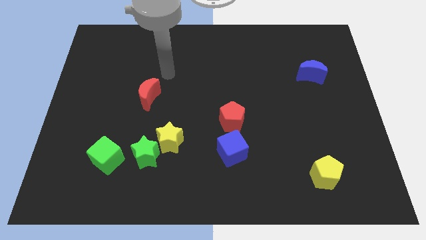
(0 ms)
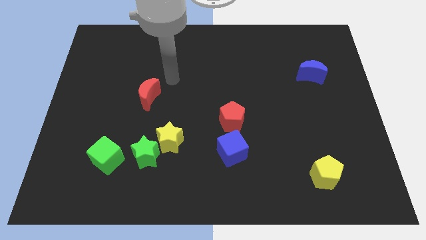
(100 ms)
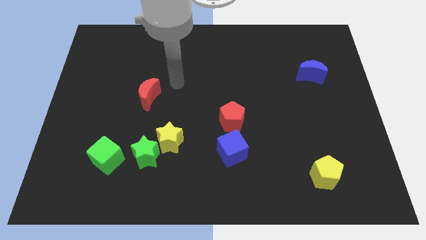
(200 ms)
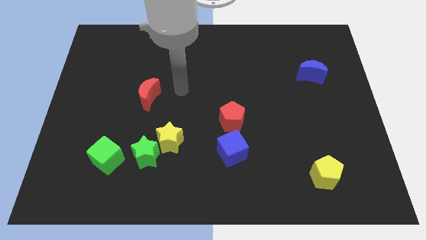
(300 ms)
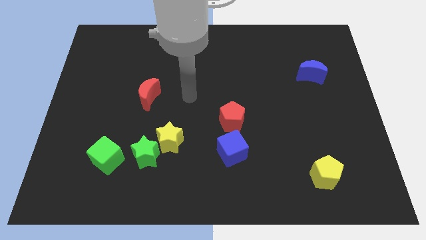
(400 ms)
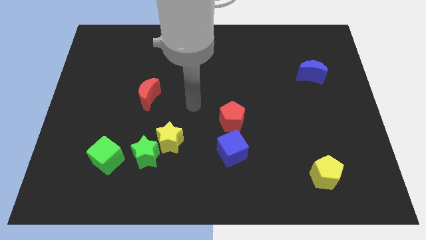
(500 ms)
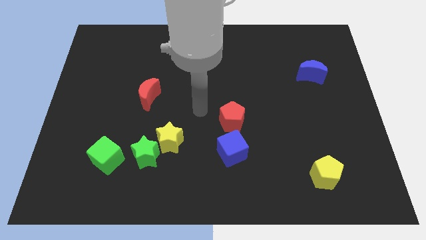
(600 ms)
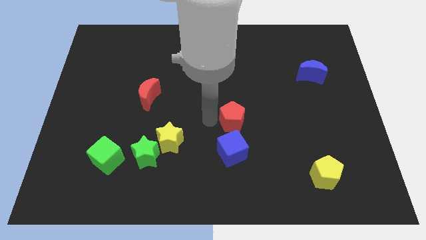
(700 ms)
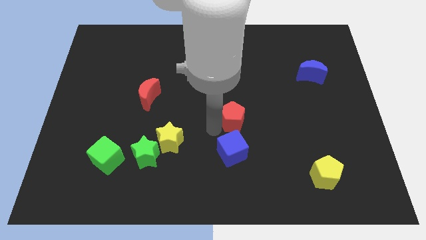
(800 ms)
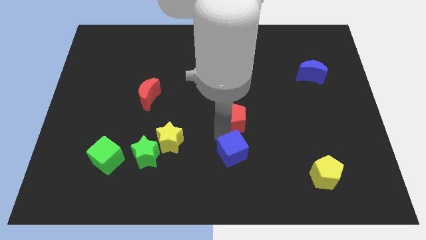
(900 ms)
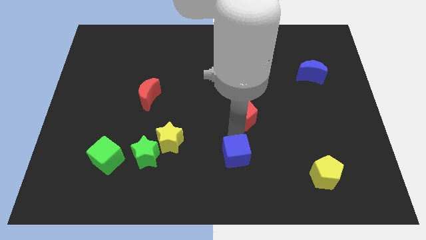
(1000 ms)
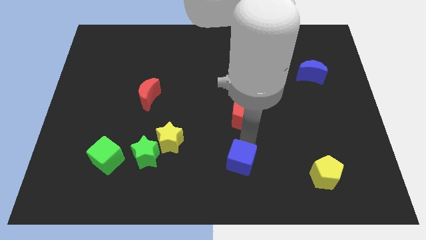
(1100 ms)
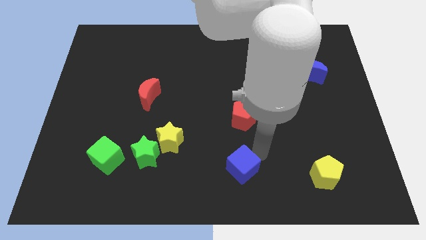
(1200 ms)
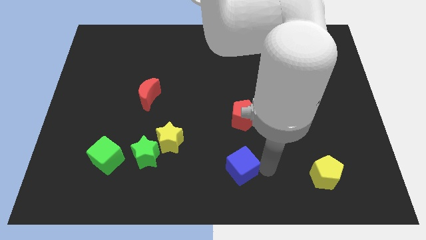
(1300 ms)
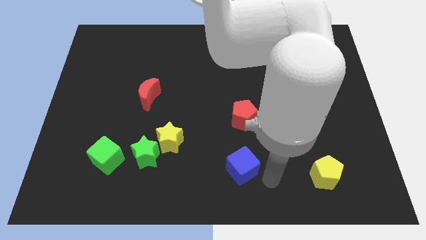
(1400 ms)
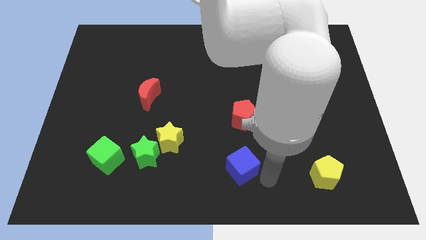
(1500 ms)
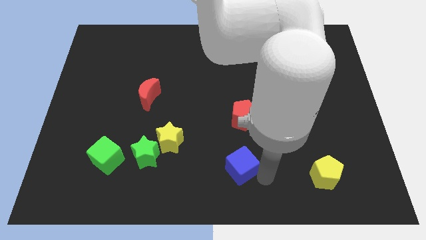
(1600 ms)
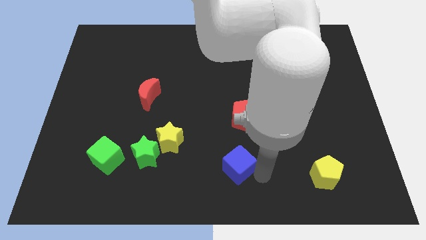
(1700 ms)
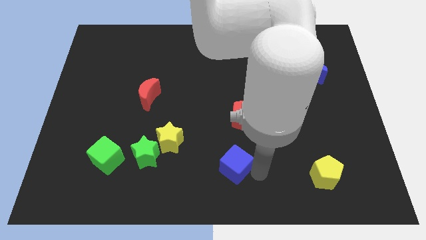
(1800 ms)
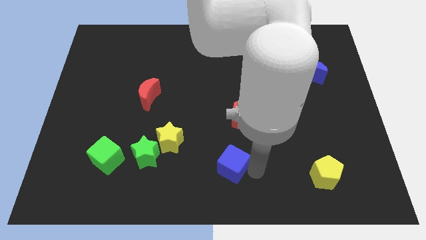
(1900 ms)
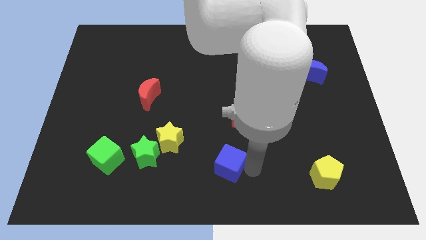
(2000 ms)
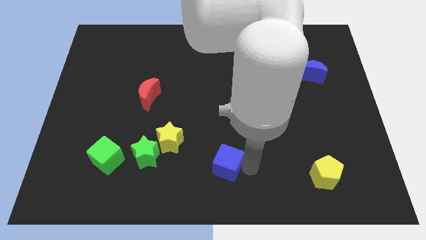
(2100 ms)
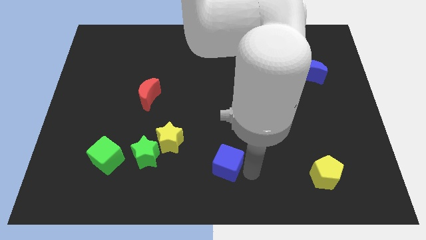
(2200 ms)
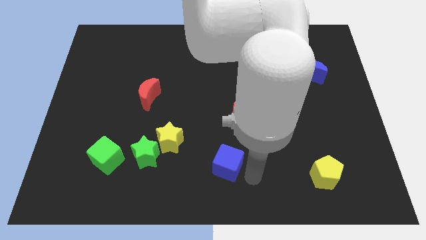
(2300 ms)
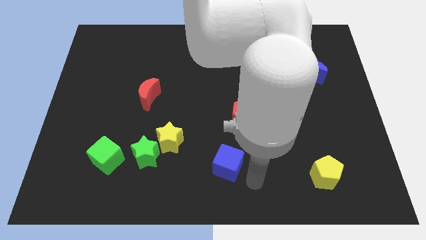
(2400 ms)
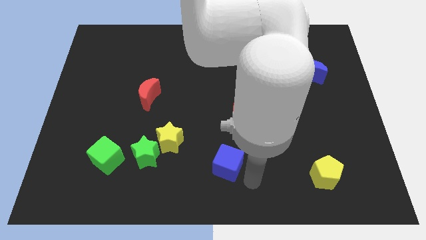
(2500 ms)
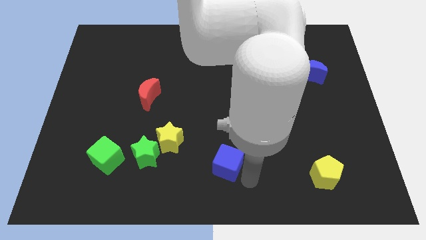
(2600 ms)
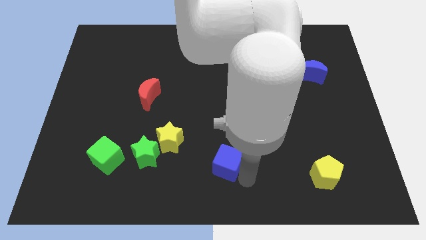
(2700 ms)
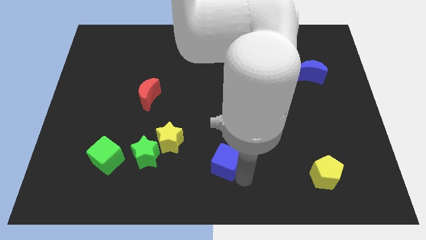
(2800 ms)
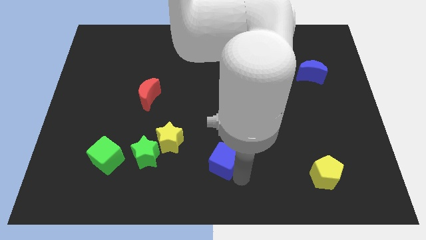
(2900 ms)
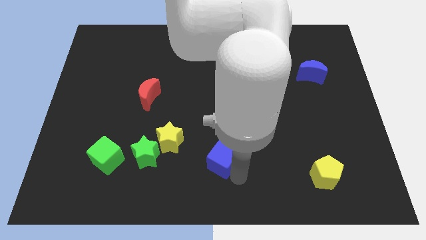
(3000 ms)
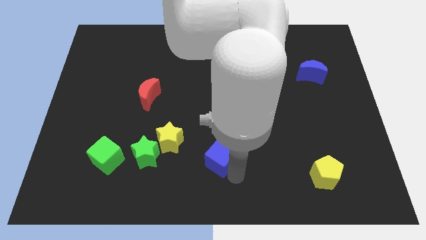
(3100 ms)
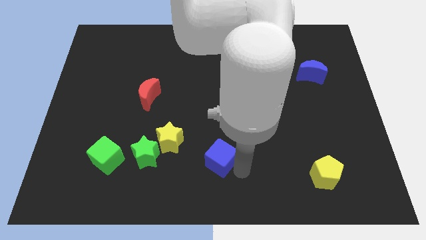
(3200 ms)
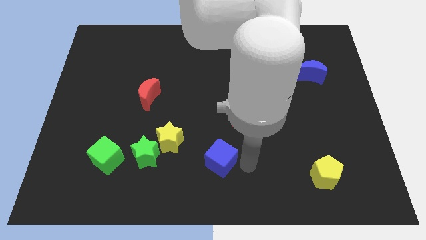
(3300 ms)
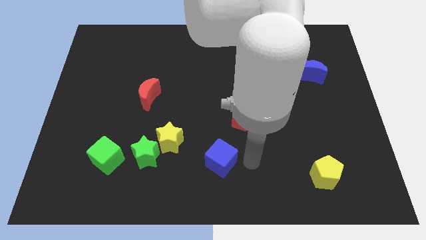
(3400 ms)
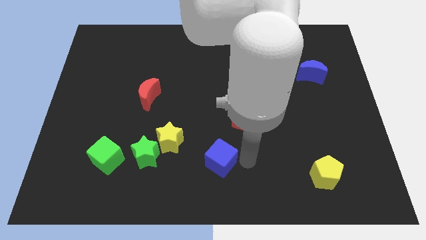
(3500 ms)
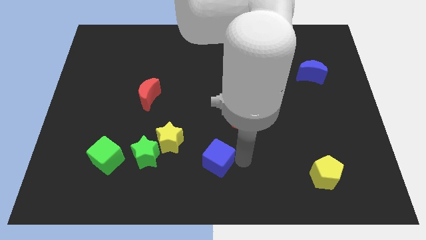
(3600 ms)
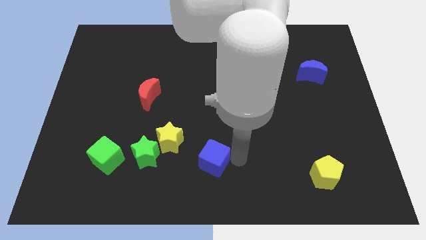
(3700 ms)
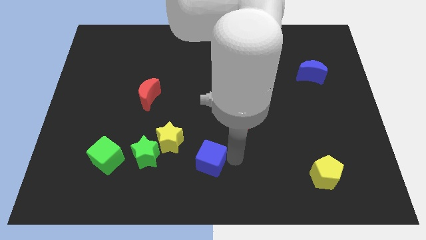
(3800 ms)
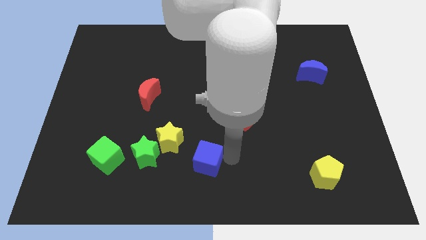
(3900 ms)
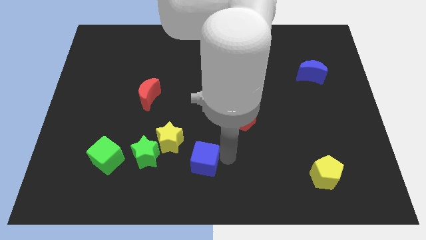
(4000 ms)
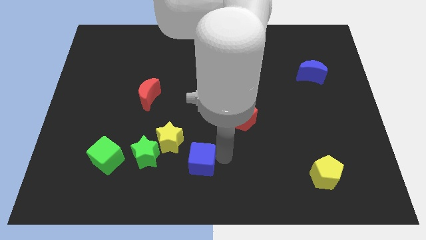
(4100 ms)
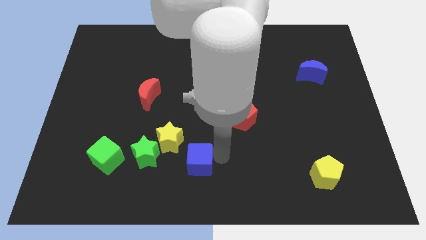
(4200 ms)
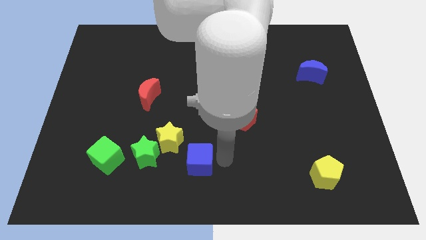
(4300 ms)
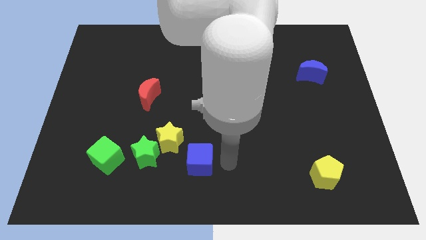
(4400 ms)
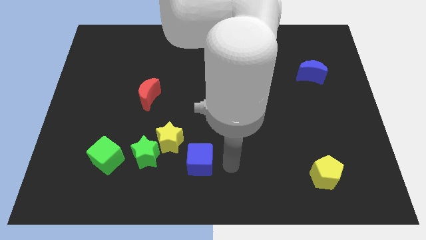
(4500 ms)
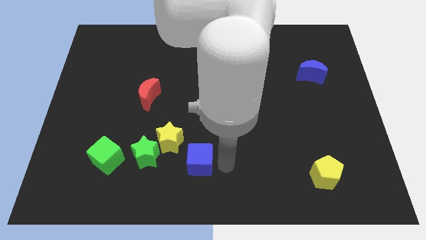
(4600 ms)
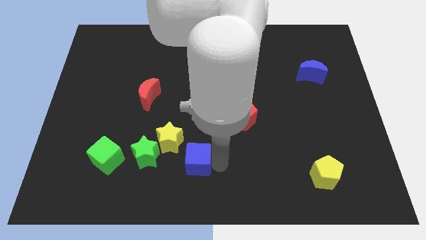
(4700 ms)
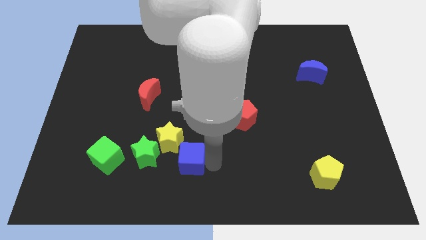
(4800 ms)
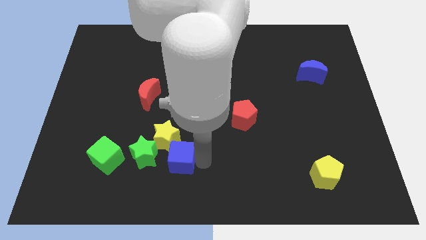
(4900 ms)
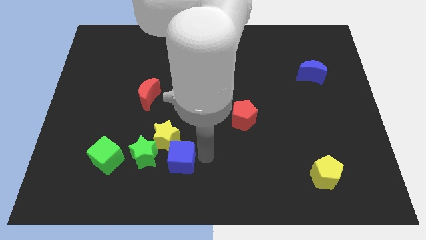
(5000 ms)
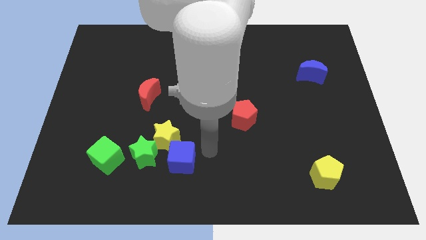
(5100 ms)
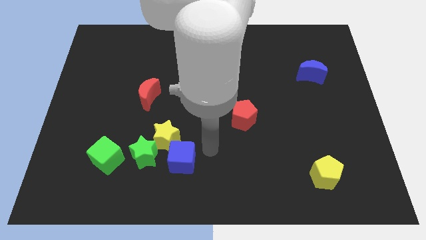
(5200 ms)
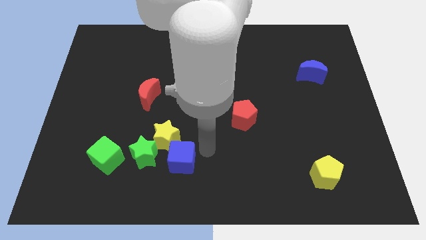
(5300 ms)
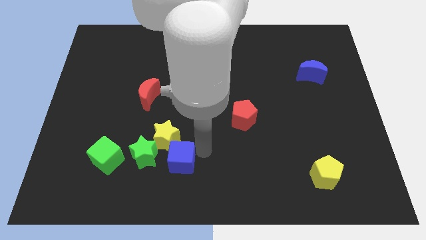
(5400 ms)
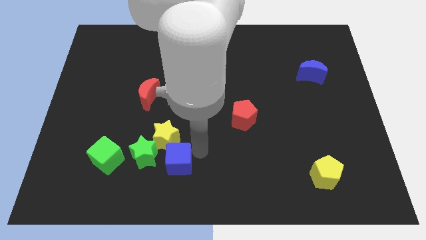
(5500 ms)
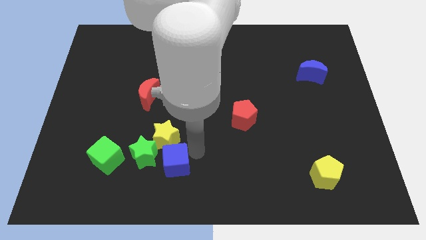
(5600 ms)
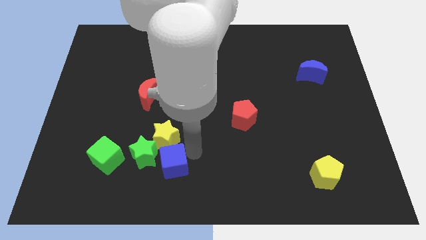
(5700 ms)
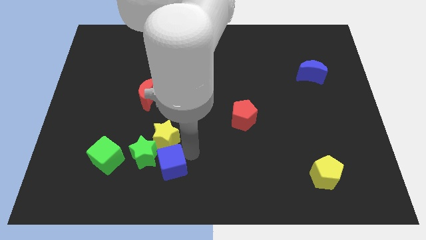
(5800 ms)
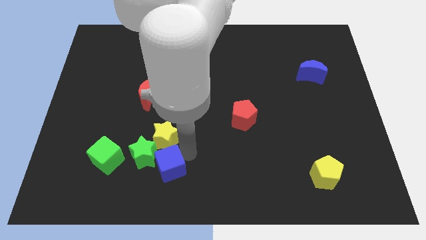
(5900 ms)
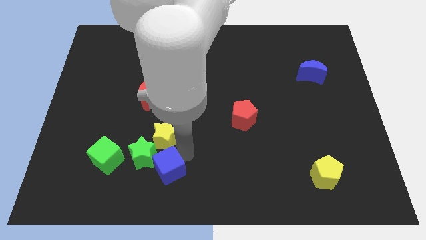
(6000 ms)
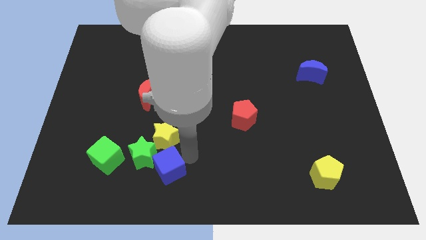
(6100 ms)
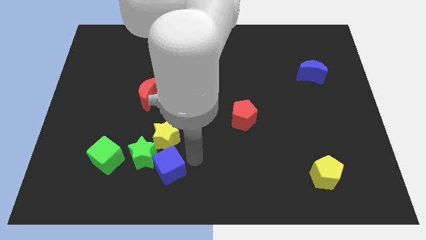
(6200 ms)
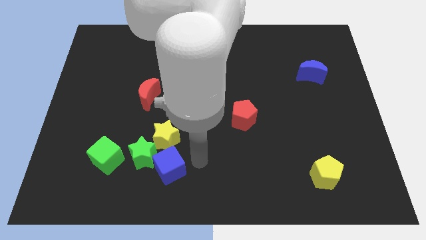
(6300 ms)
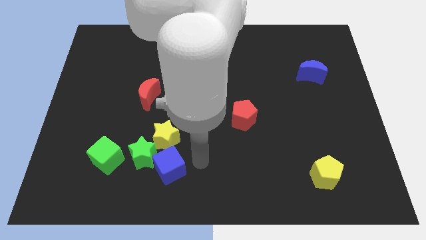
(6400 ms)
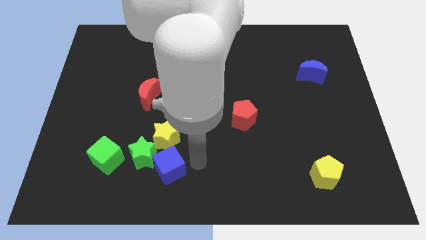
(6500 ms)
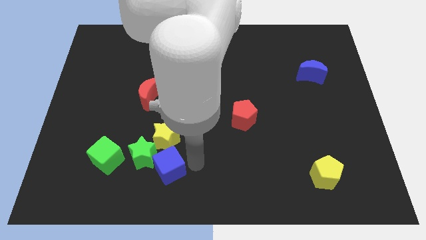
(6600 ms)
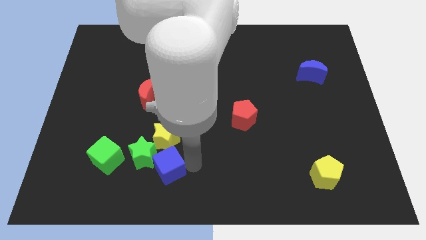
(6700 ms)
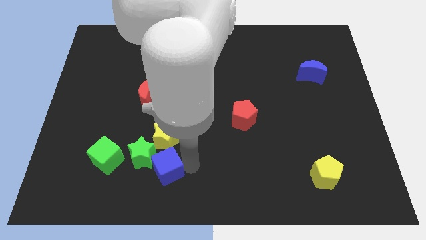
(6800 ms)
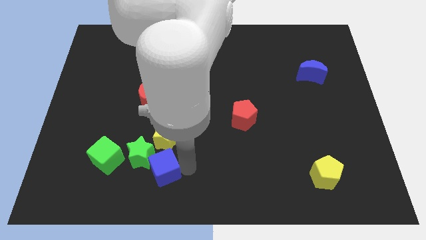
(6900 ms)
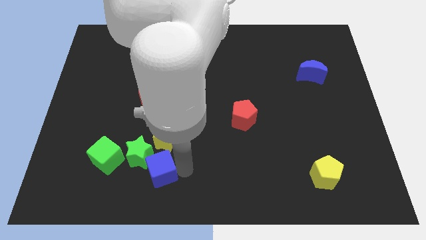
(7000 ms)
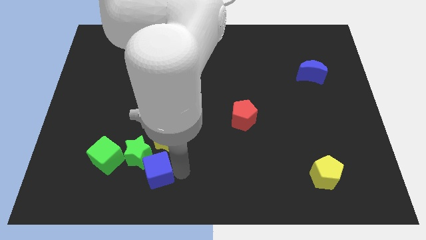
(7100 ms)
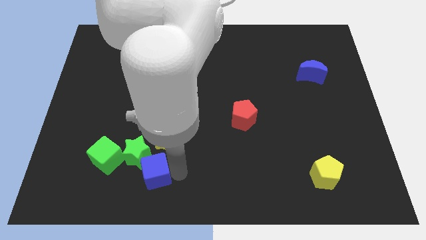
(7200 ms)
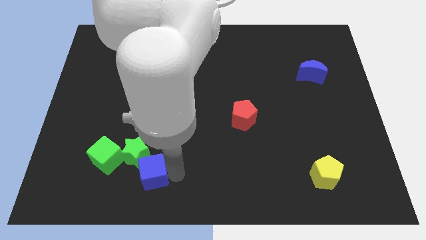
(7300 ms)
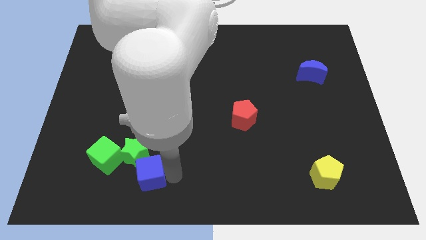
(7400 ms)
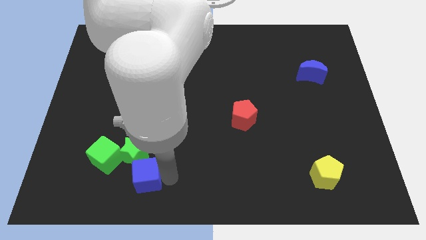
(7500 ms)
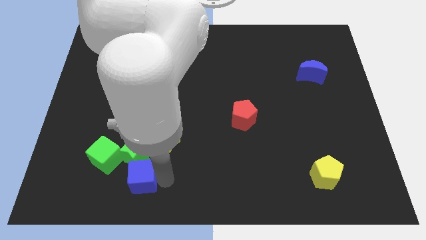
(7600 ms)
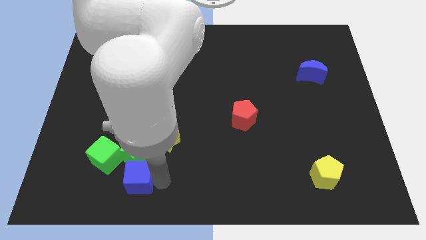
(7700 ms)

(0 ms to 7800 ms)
slide the blue cube to the bottom left side of the green star
